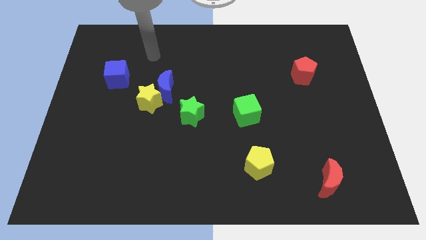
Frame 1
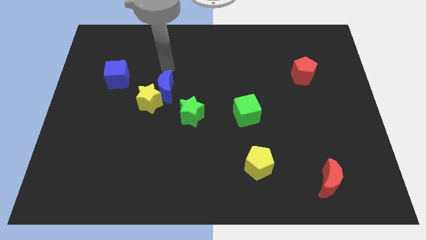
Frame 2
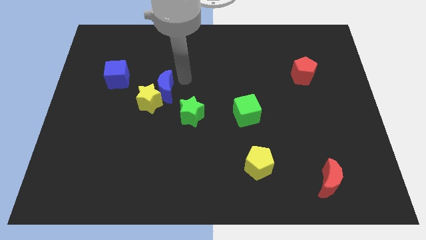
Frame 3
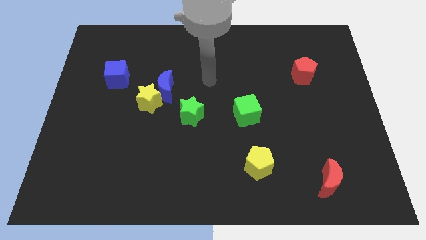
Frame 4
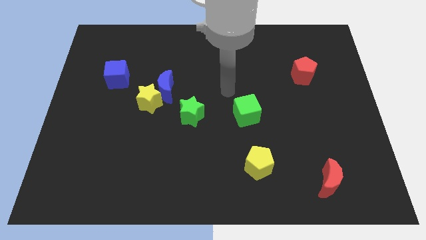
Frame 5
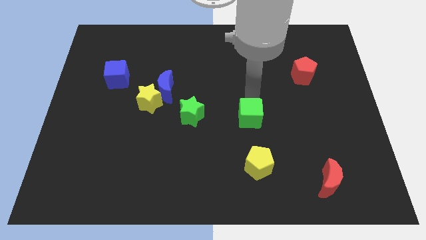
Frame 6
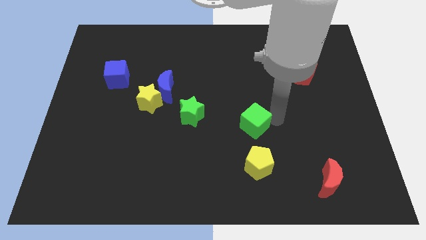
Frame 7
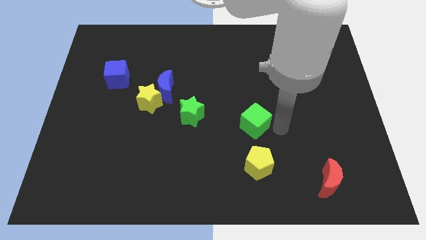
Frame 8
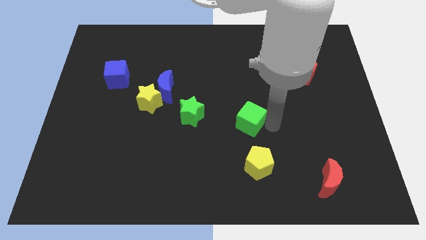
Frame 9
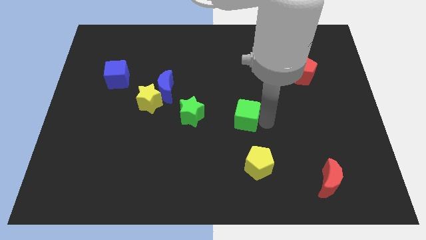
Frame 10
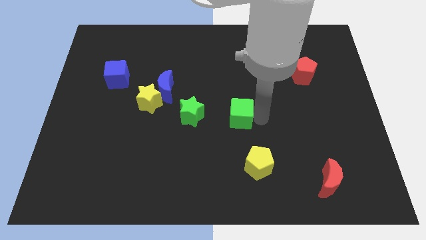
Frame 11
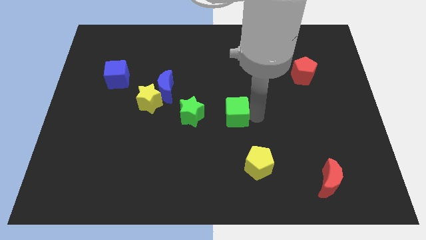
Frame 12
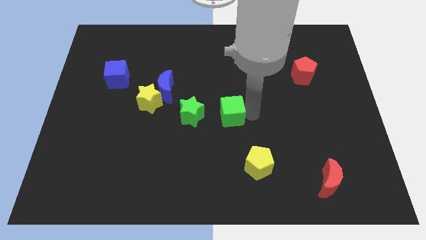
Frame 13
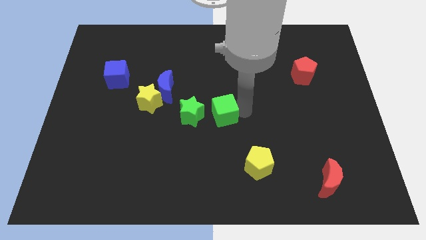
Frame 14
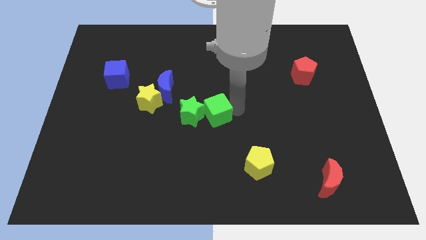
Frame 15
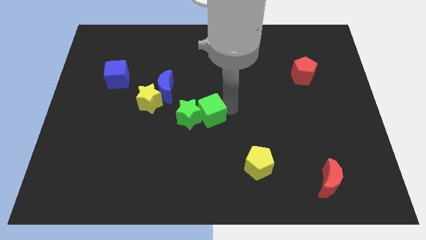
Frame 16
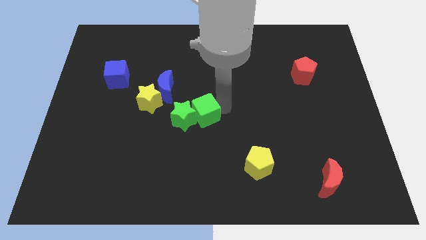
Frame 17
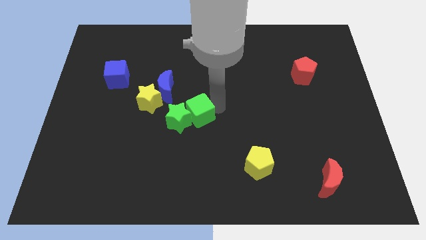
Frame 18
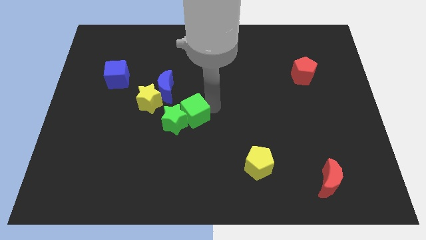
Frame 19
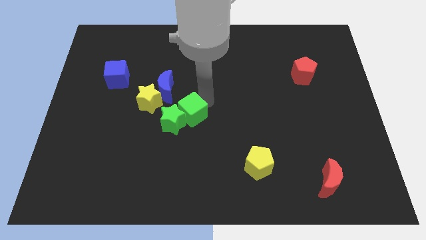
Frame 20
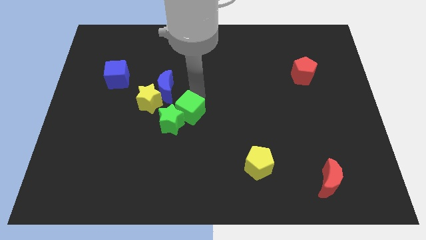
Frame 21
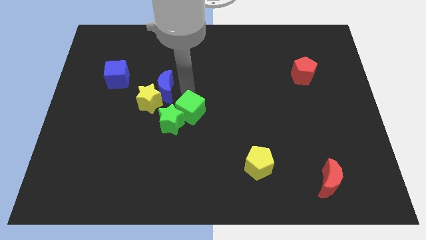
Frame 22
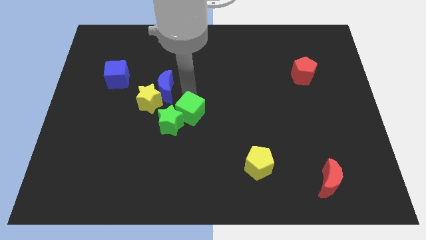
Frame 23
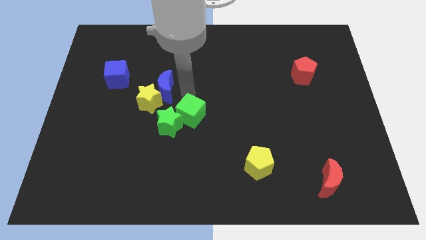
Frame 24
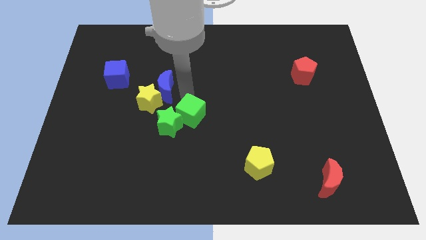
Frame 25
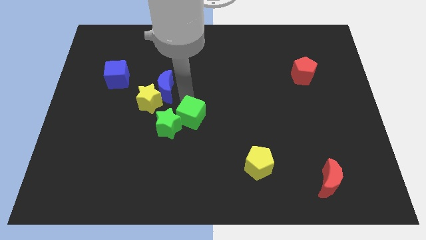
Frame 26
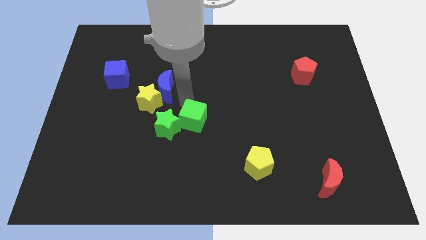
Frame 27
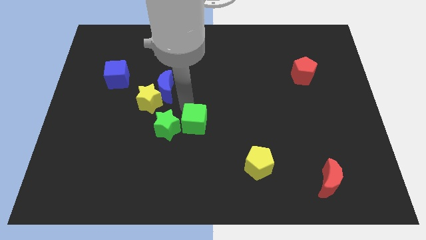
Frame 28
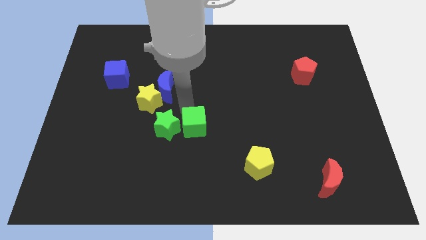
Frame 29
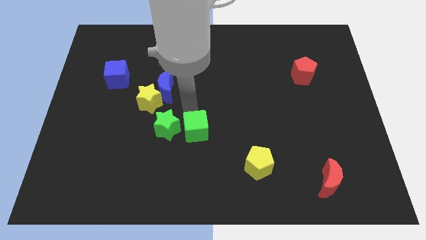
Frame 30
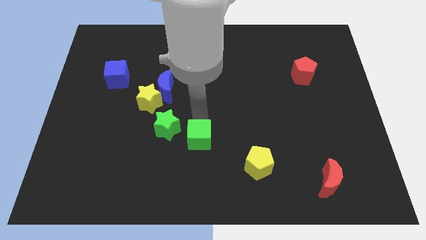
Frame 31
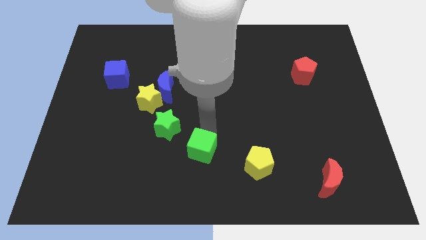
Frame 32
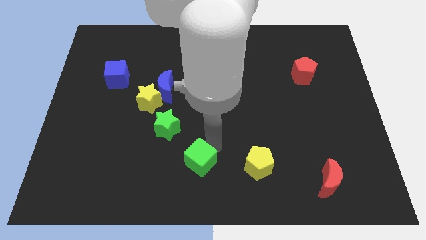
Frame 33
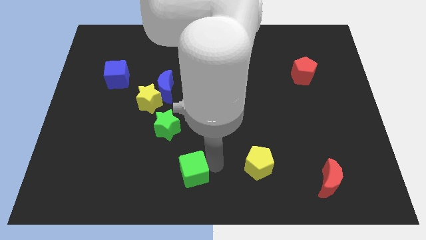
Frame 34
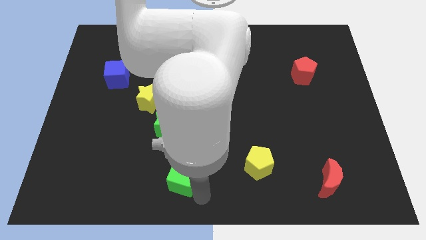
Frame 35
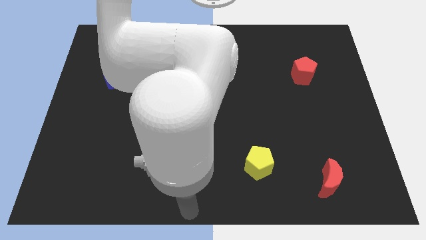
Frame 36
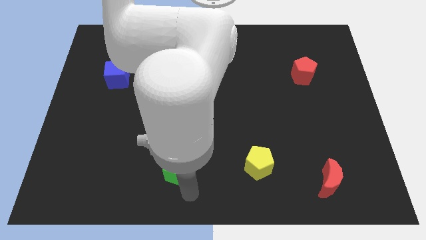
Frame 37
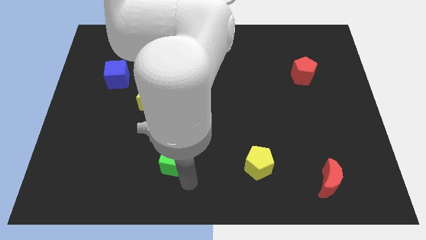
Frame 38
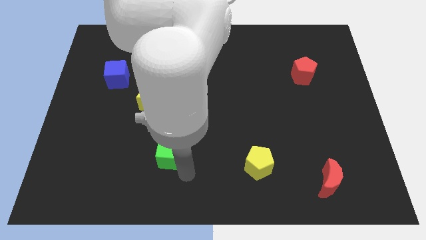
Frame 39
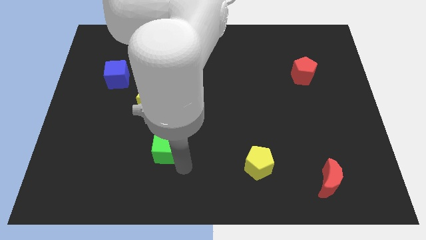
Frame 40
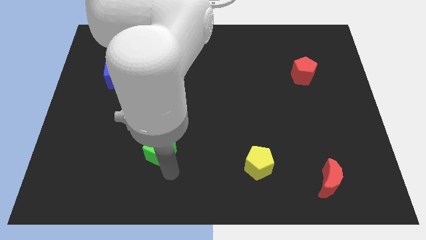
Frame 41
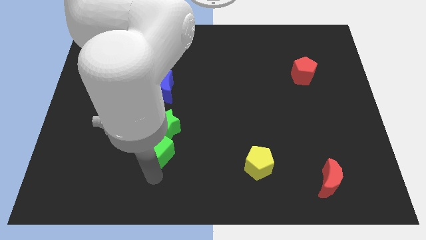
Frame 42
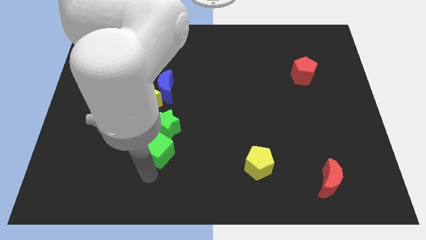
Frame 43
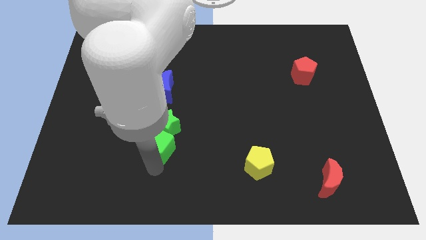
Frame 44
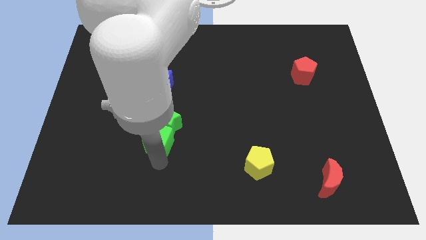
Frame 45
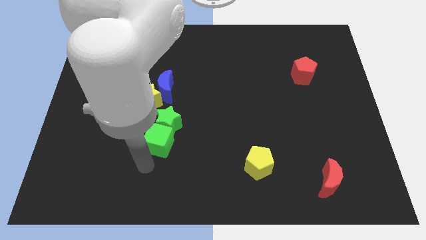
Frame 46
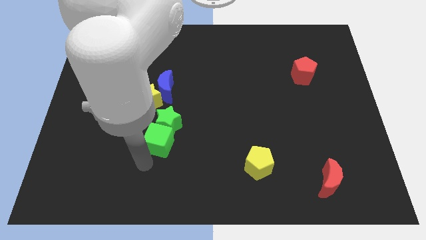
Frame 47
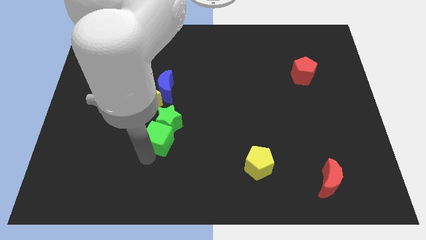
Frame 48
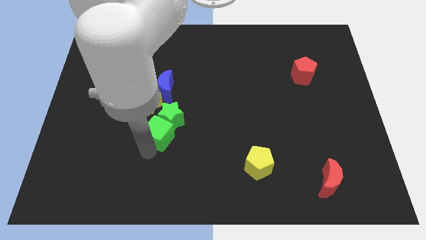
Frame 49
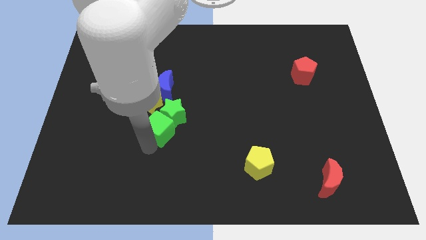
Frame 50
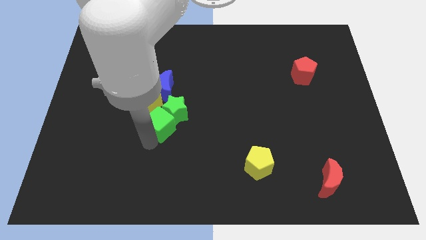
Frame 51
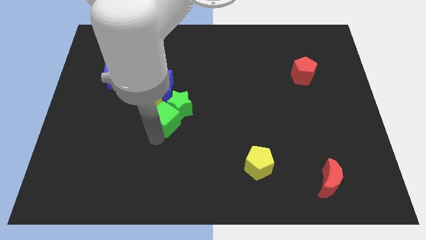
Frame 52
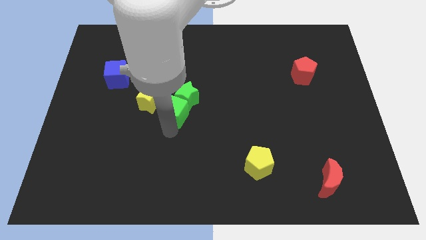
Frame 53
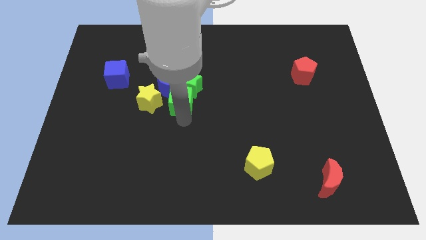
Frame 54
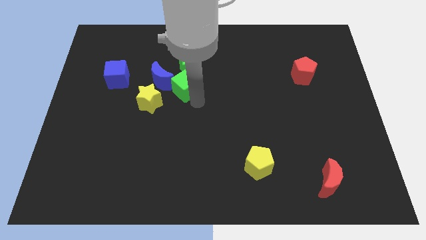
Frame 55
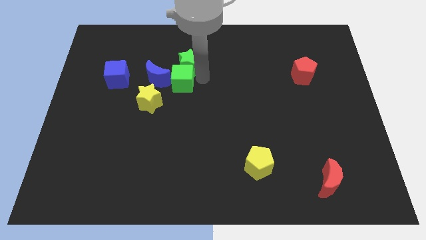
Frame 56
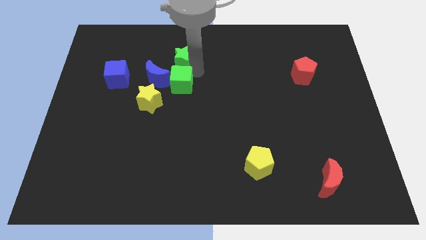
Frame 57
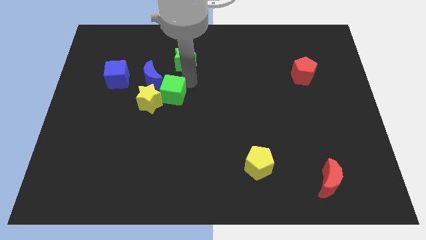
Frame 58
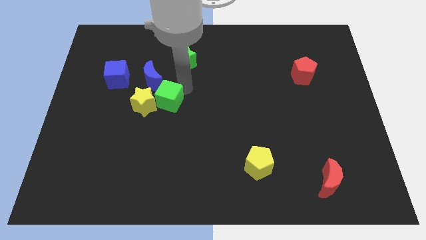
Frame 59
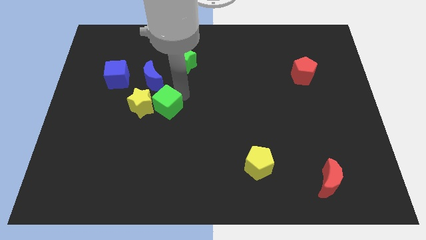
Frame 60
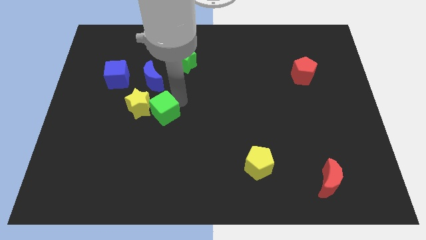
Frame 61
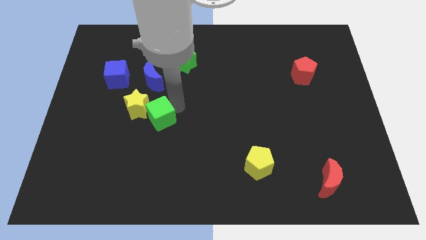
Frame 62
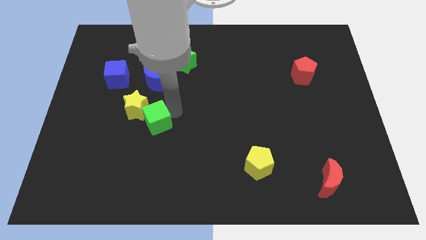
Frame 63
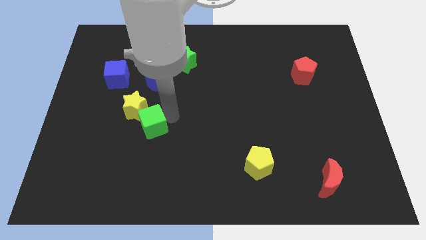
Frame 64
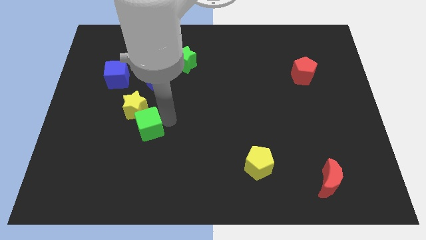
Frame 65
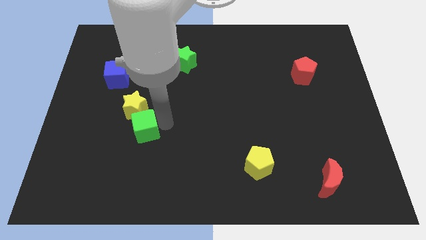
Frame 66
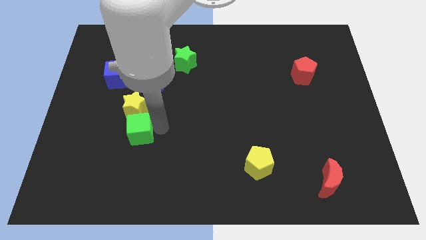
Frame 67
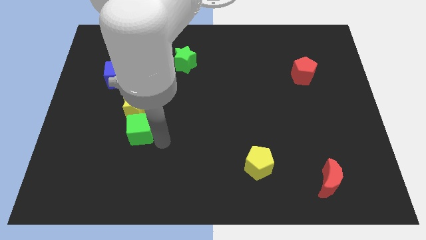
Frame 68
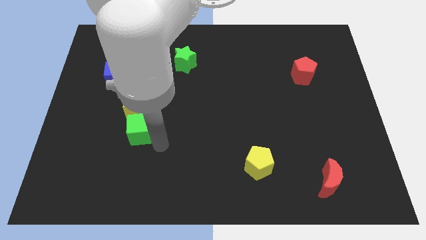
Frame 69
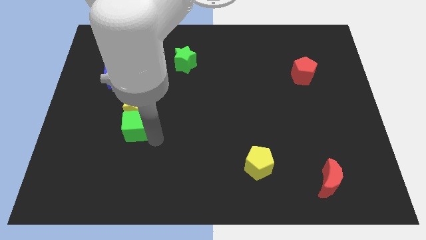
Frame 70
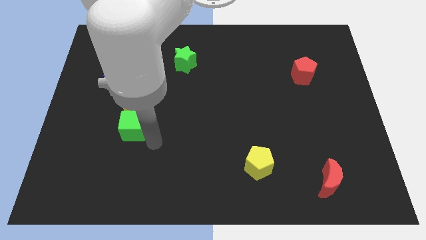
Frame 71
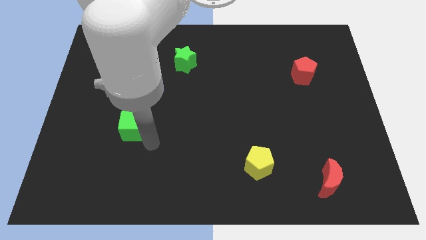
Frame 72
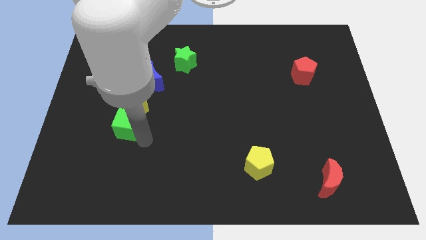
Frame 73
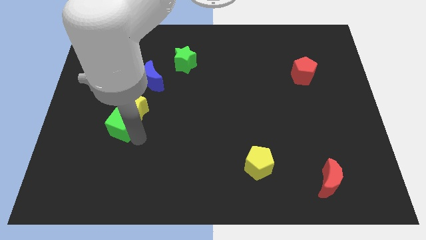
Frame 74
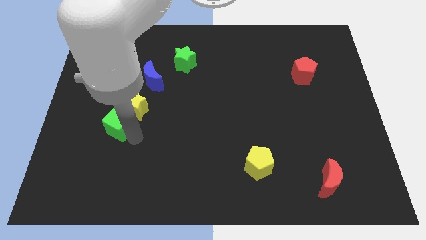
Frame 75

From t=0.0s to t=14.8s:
push the green cube to the bottom of the blue cube
